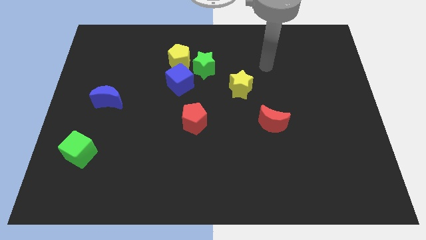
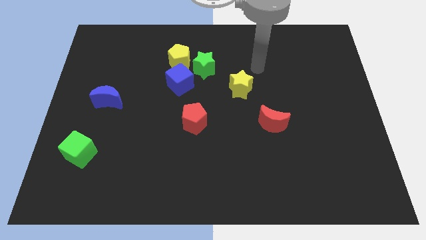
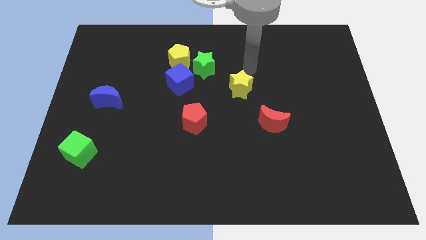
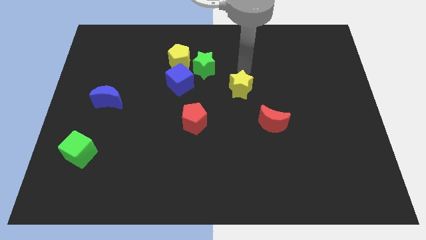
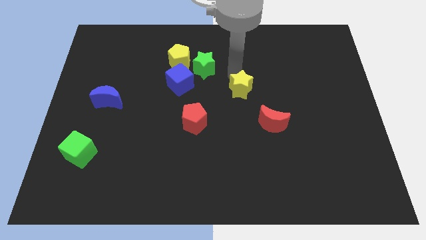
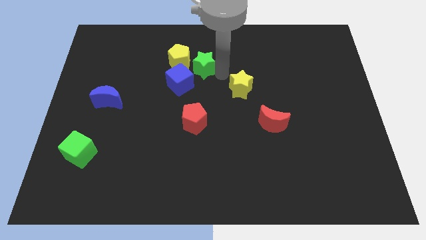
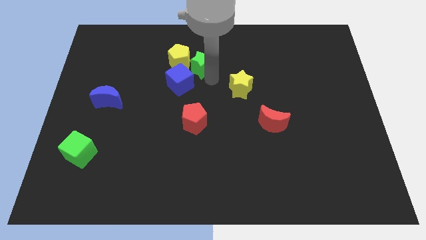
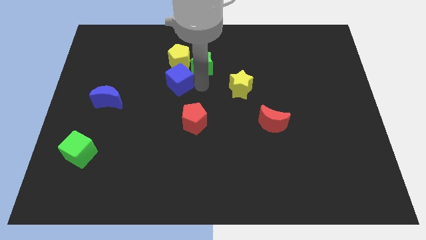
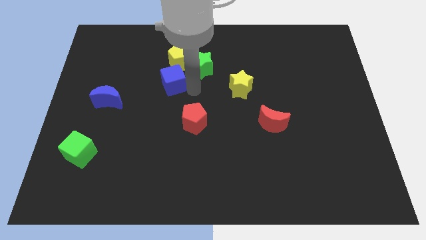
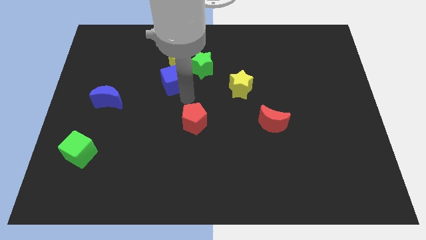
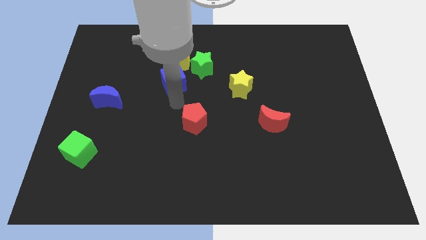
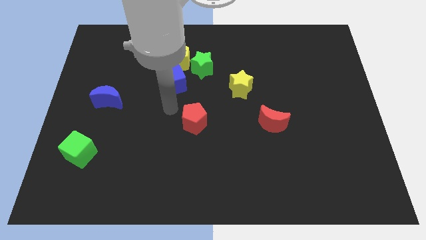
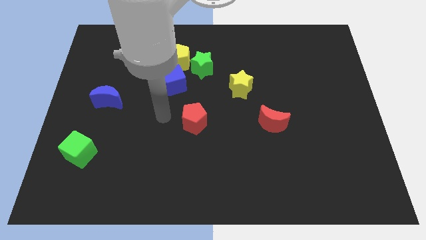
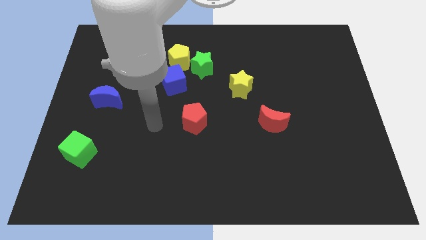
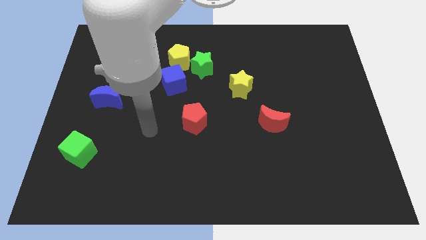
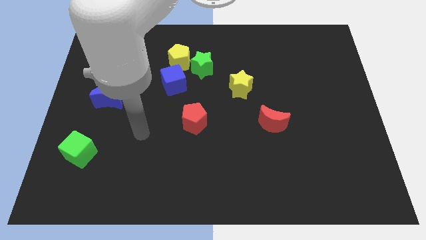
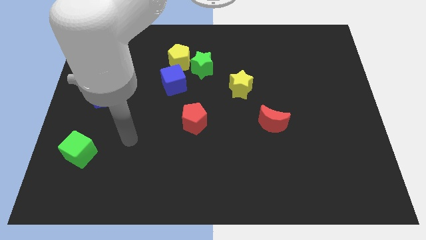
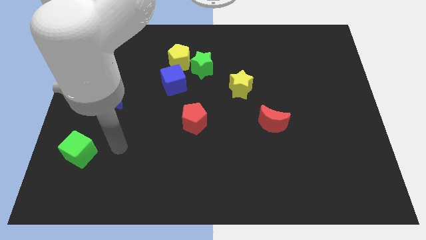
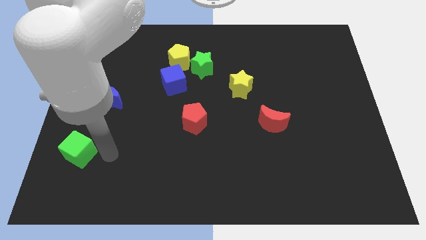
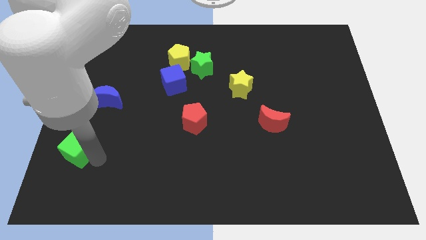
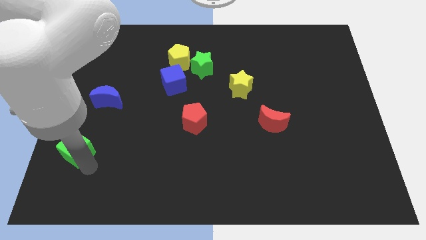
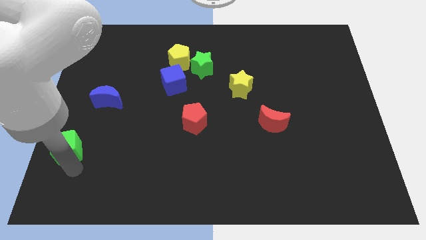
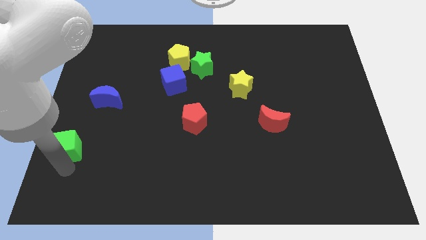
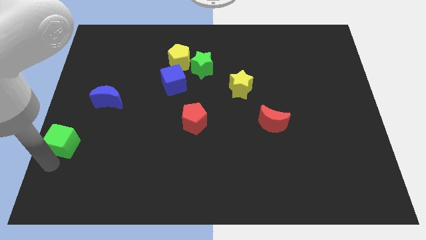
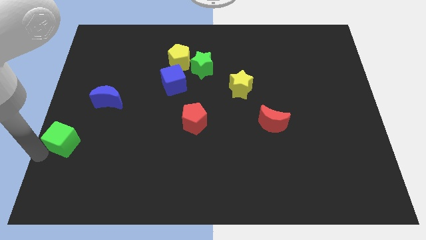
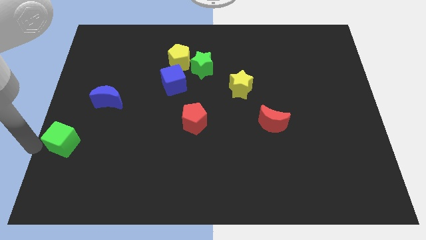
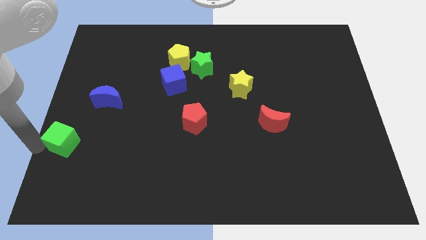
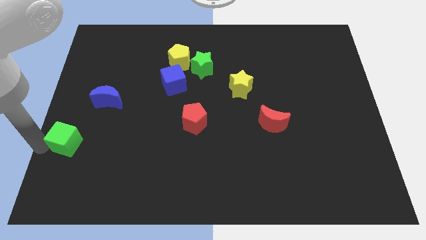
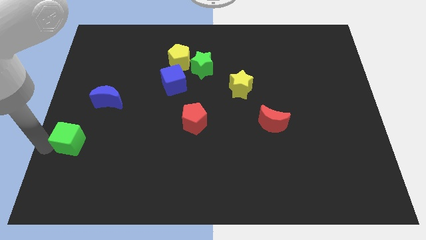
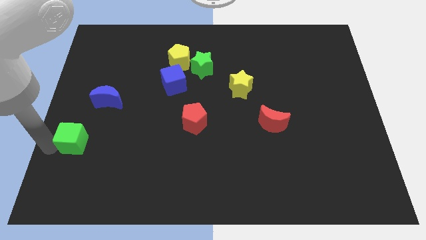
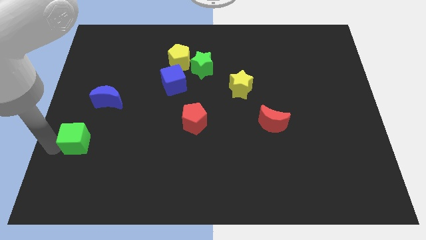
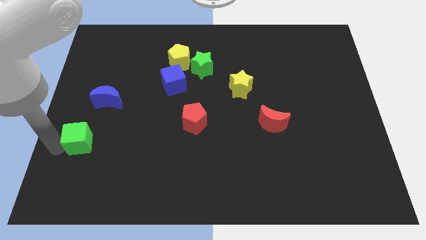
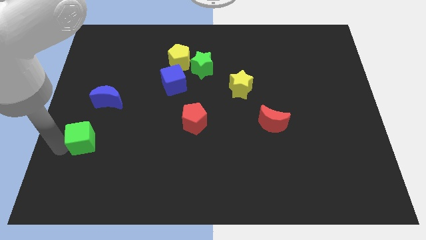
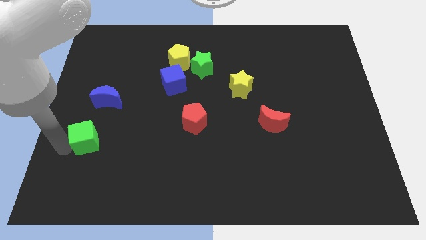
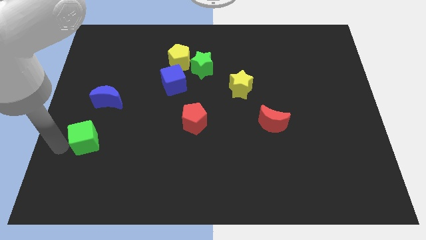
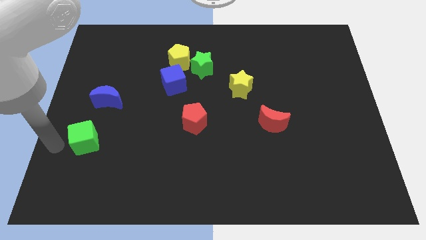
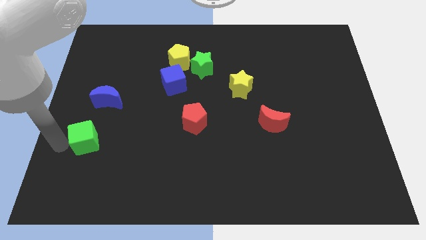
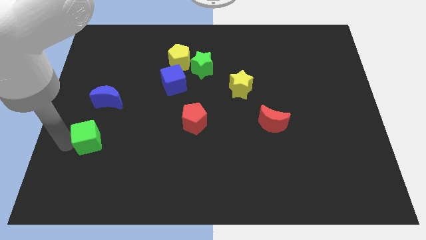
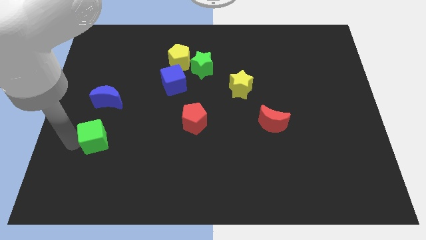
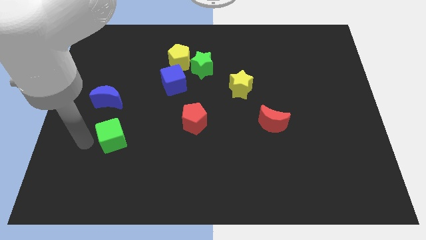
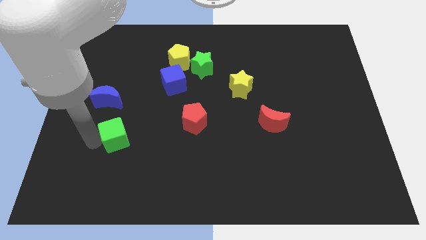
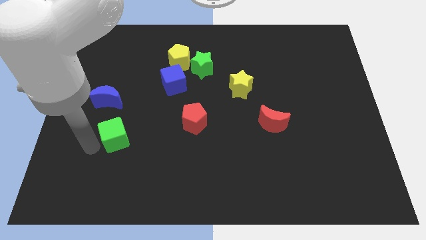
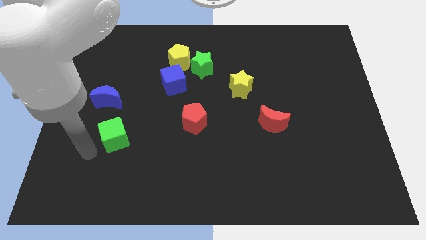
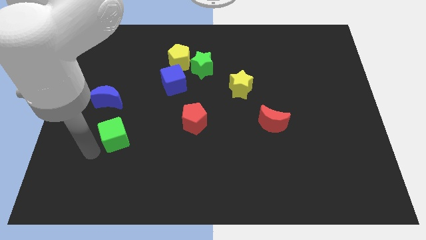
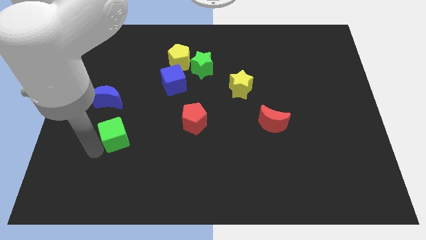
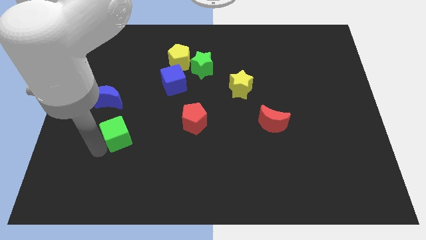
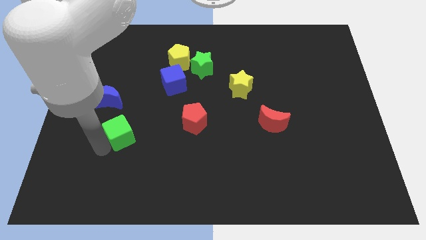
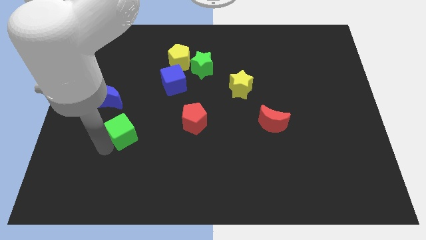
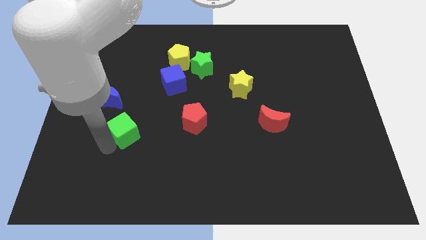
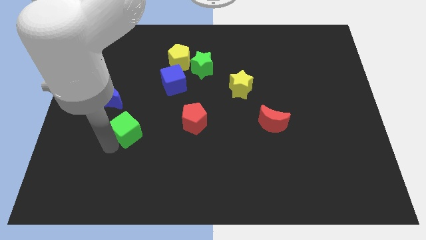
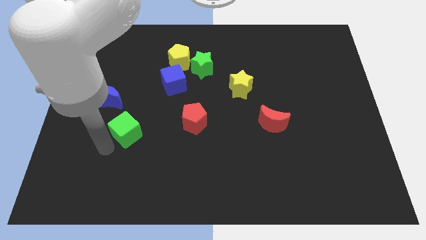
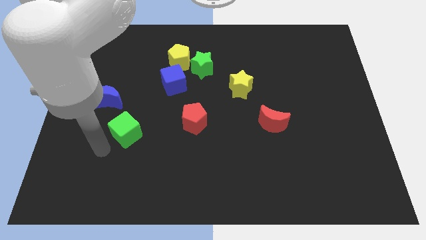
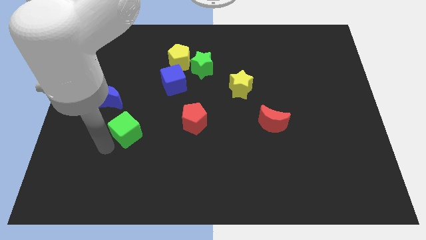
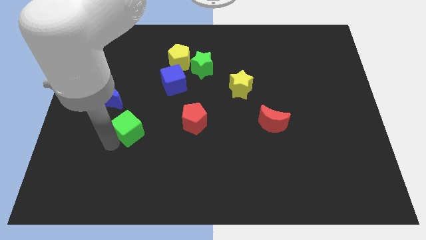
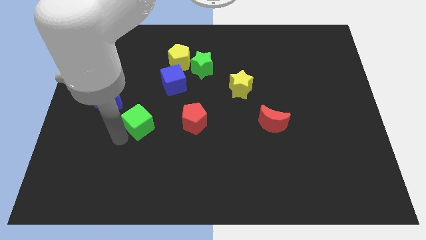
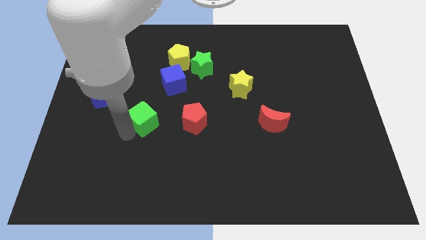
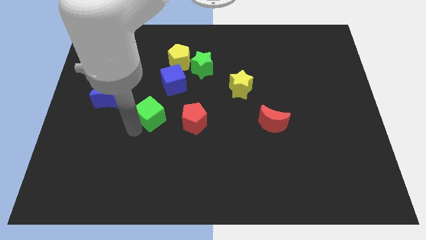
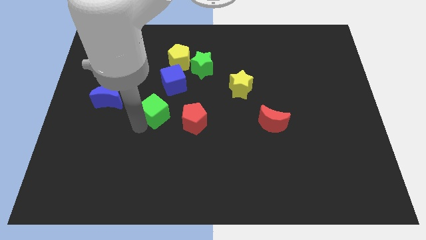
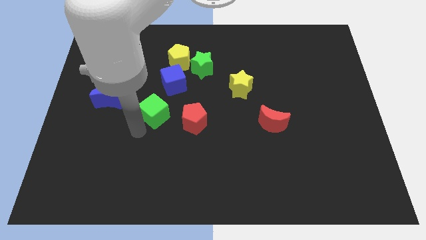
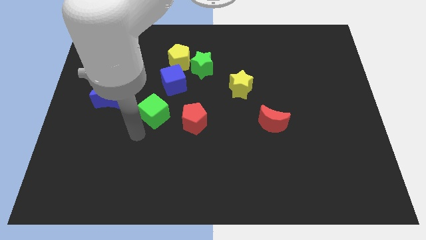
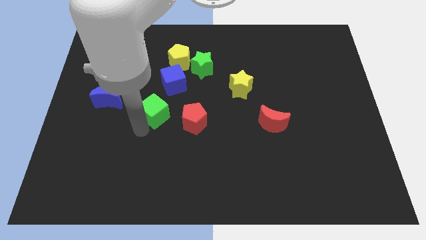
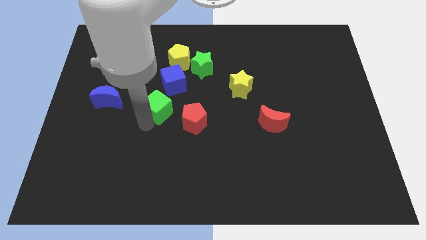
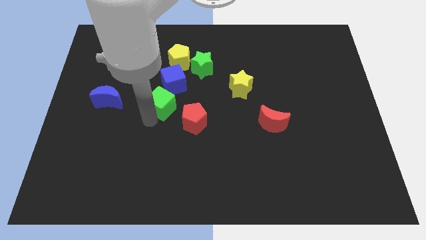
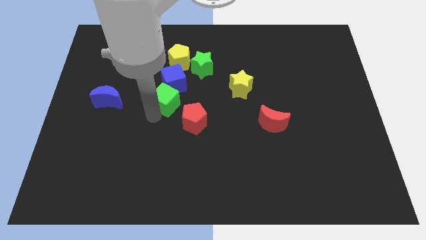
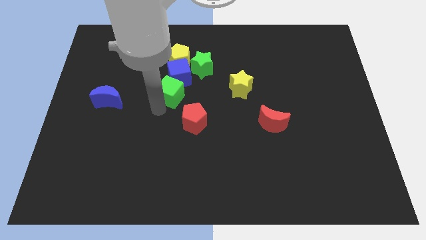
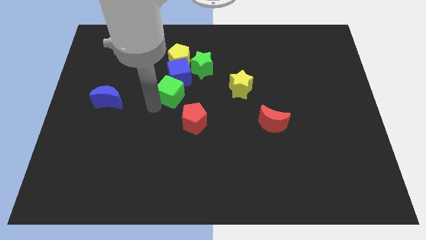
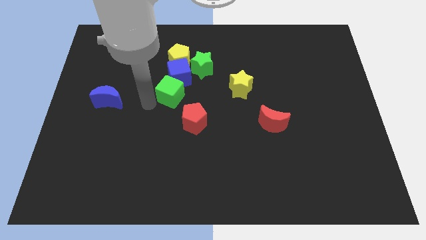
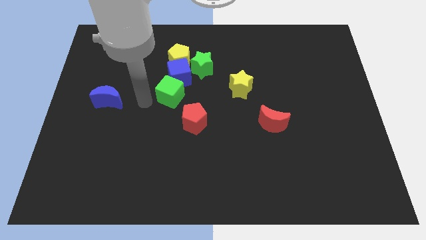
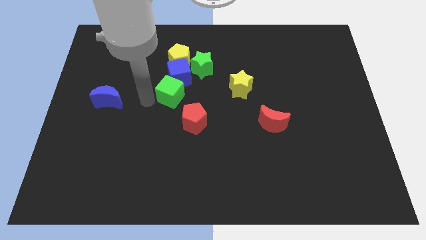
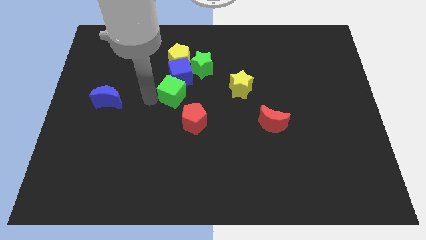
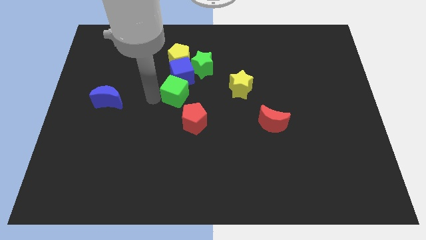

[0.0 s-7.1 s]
push the green cube to the left of the yellow star
